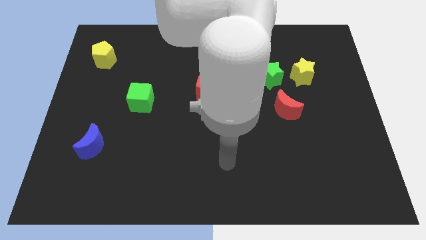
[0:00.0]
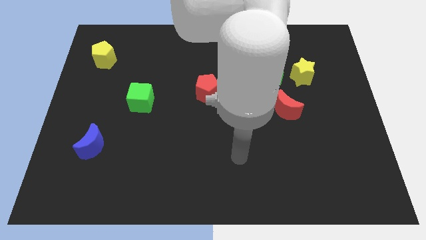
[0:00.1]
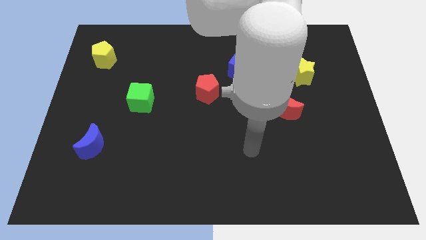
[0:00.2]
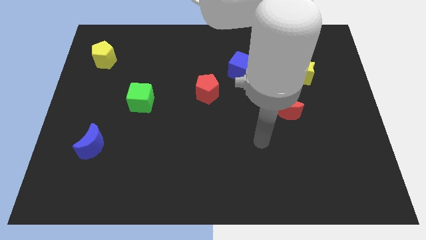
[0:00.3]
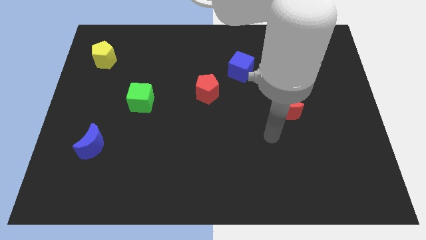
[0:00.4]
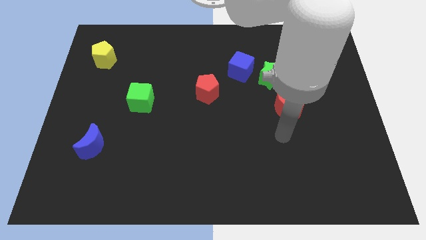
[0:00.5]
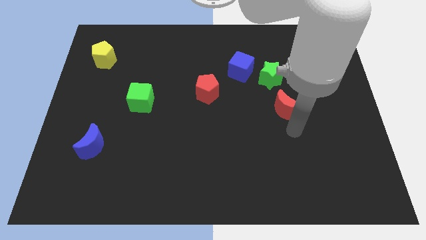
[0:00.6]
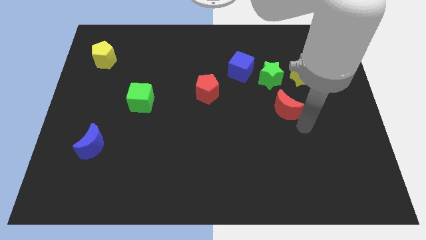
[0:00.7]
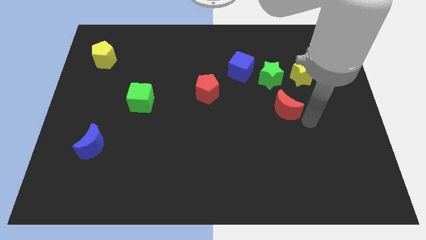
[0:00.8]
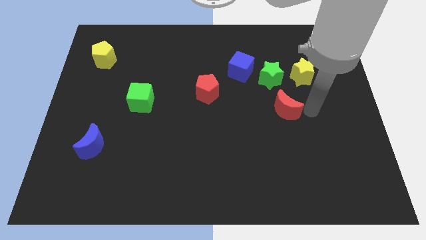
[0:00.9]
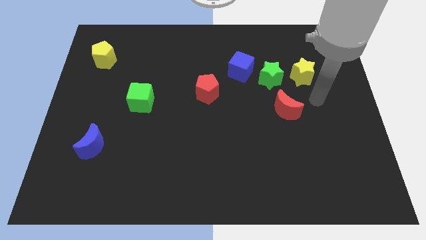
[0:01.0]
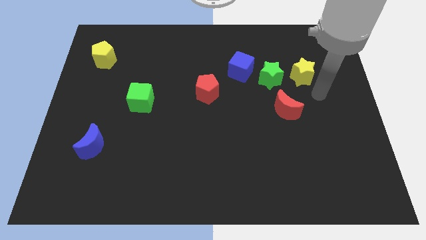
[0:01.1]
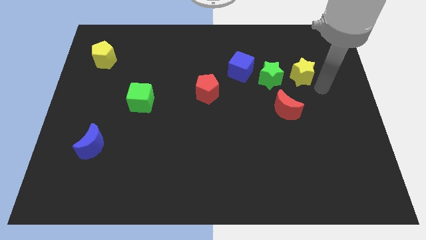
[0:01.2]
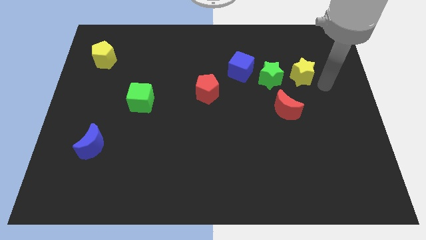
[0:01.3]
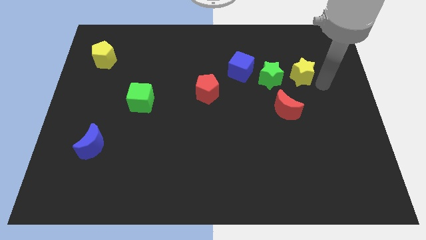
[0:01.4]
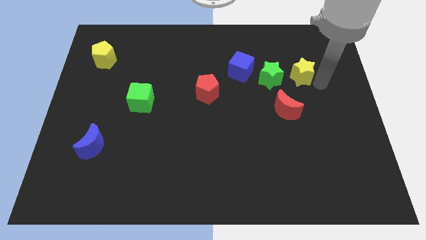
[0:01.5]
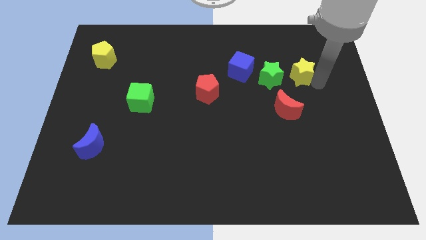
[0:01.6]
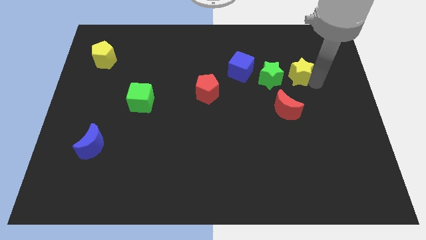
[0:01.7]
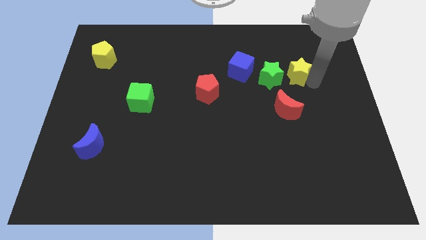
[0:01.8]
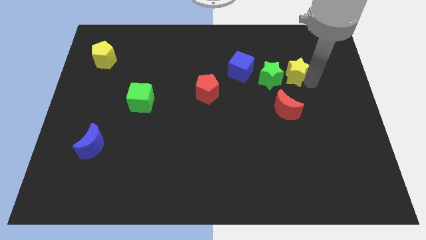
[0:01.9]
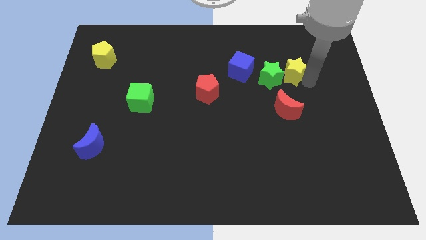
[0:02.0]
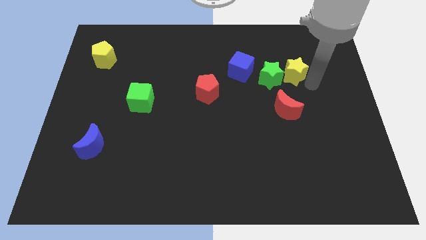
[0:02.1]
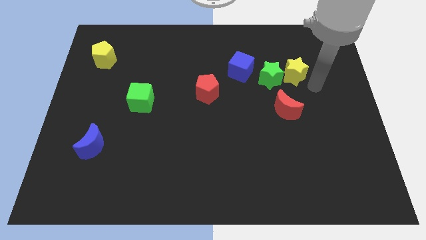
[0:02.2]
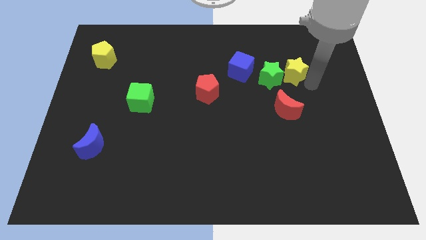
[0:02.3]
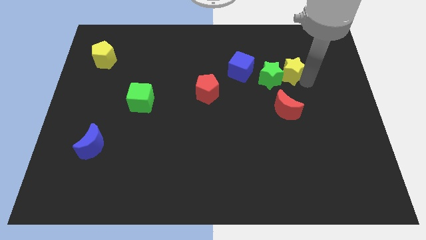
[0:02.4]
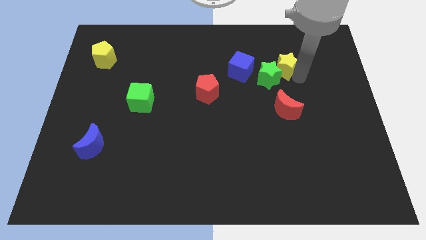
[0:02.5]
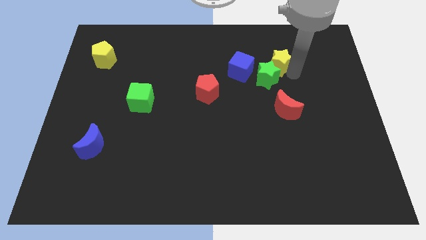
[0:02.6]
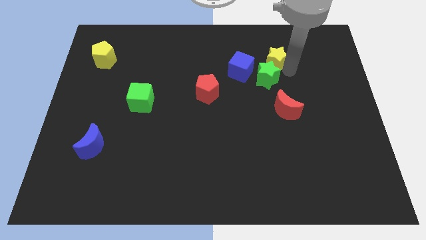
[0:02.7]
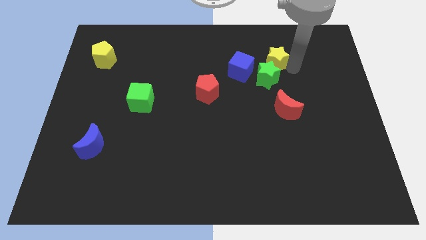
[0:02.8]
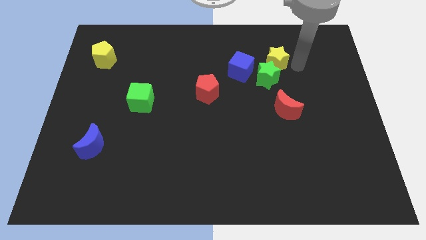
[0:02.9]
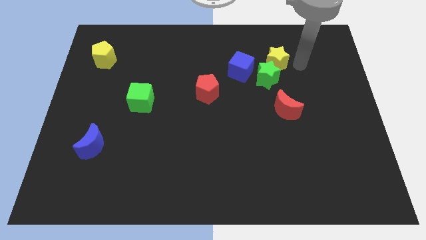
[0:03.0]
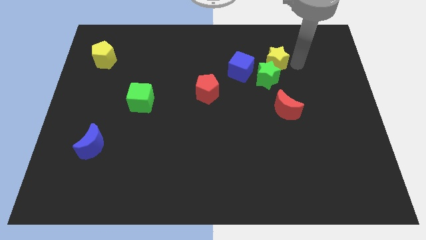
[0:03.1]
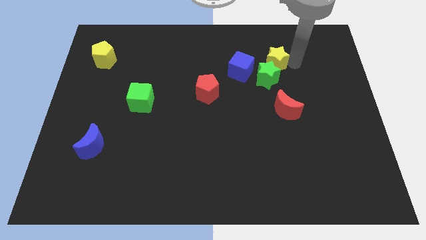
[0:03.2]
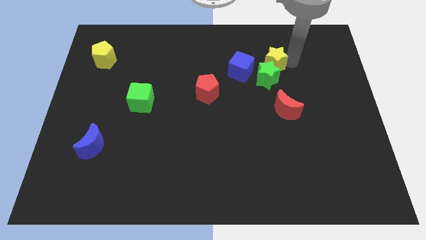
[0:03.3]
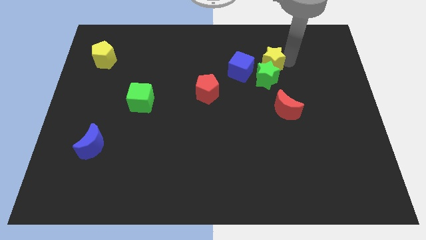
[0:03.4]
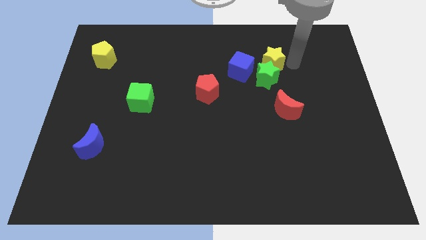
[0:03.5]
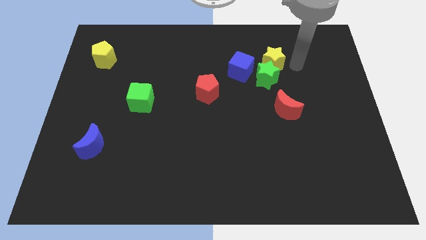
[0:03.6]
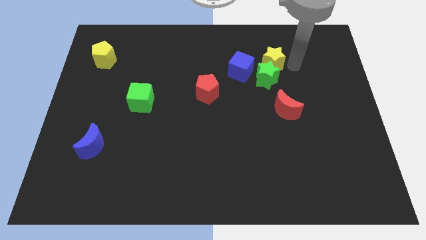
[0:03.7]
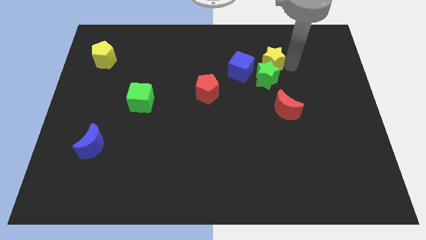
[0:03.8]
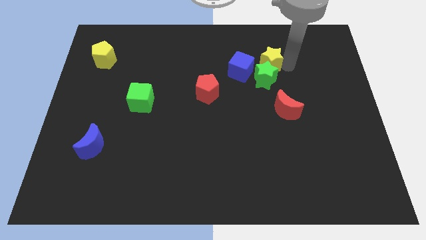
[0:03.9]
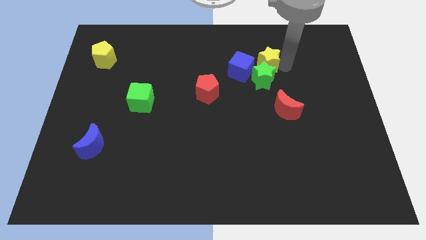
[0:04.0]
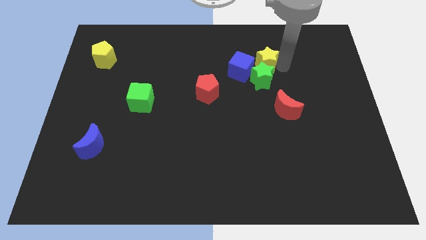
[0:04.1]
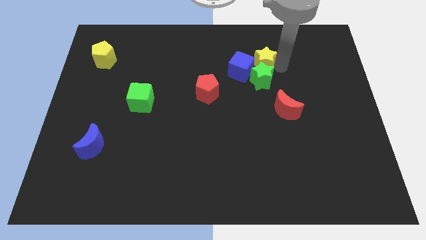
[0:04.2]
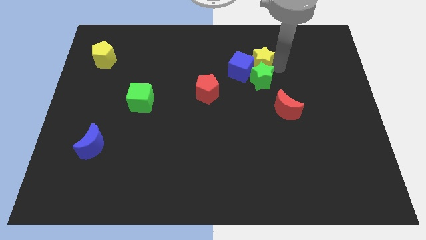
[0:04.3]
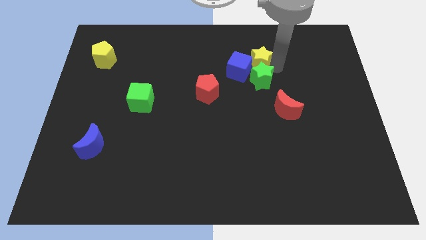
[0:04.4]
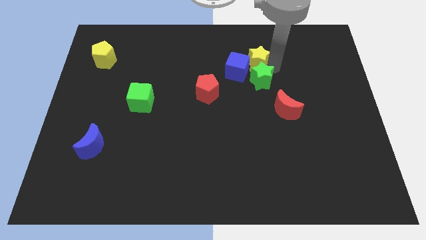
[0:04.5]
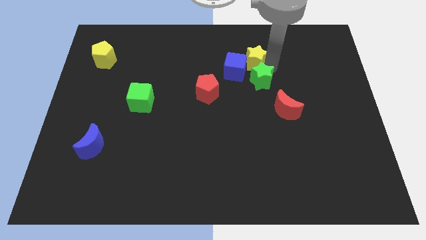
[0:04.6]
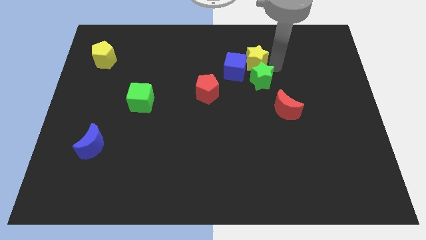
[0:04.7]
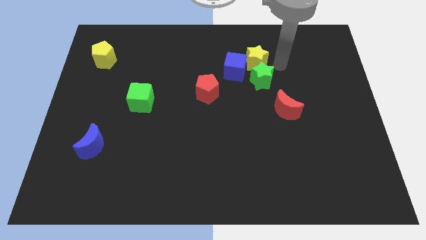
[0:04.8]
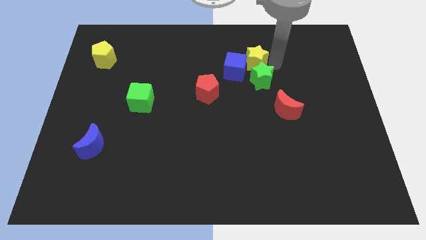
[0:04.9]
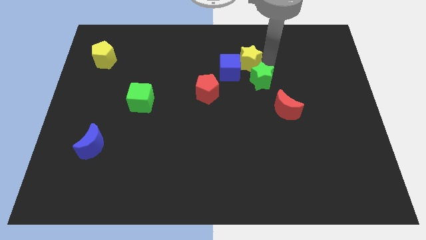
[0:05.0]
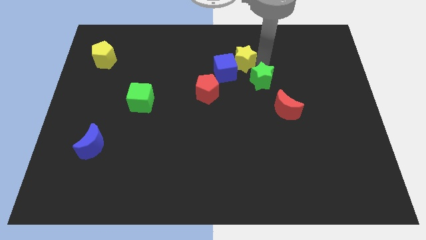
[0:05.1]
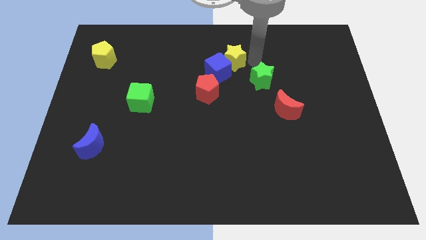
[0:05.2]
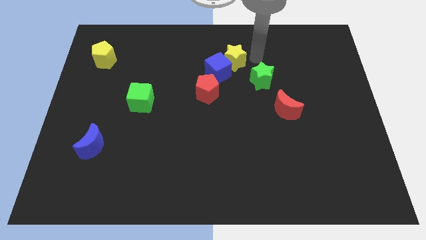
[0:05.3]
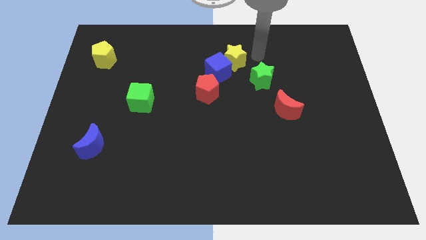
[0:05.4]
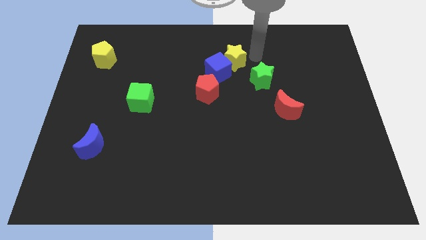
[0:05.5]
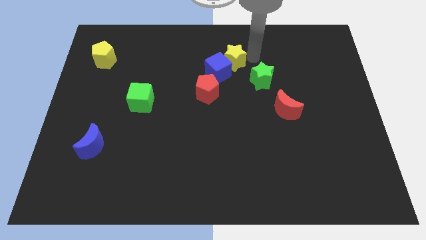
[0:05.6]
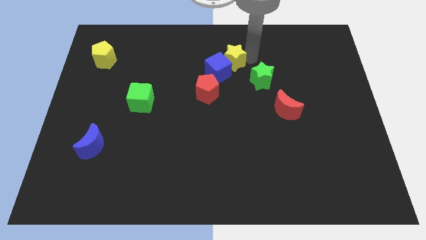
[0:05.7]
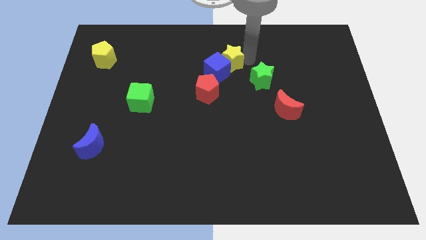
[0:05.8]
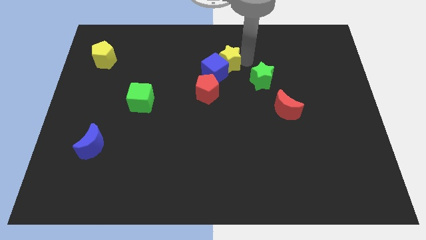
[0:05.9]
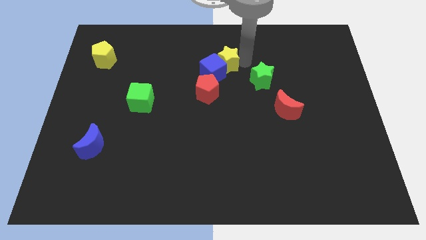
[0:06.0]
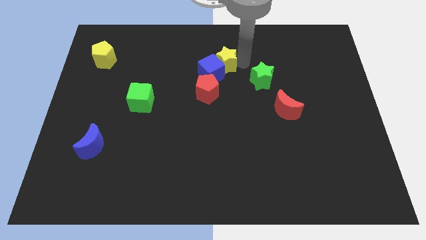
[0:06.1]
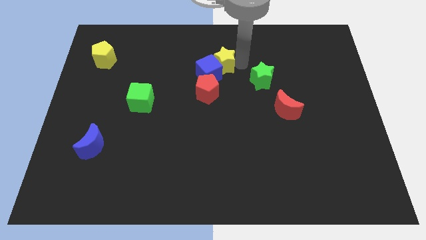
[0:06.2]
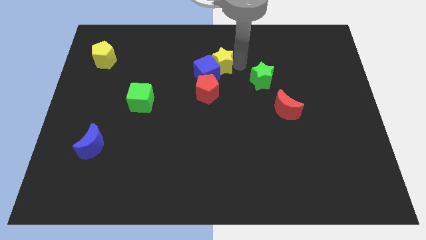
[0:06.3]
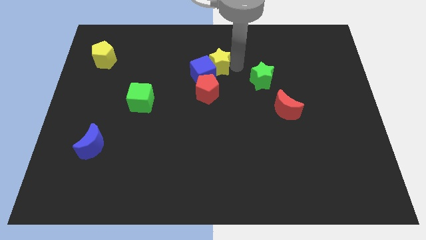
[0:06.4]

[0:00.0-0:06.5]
push the yellow star left

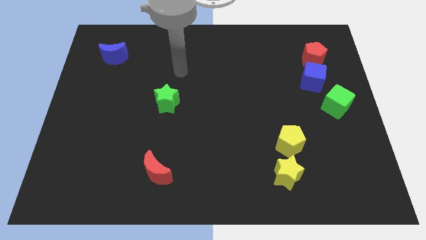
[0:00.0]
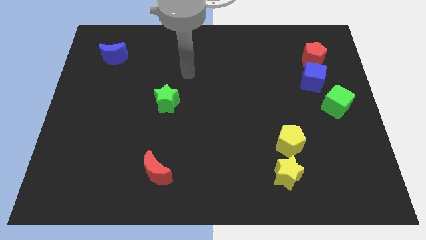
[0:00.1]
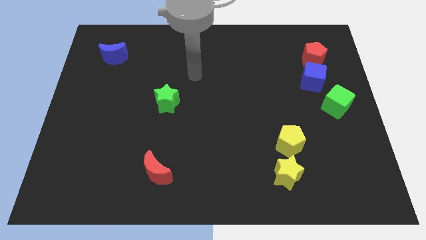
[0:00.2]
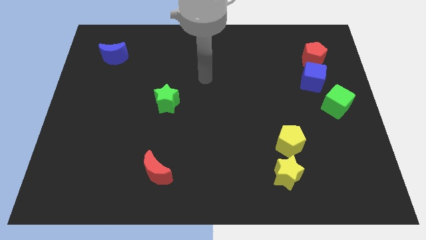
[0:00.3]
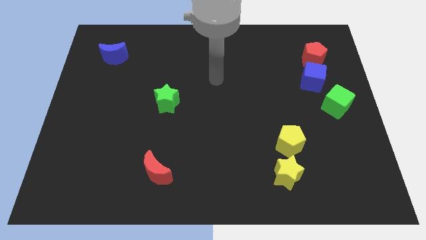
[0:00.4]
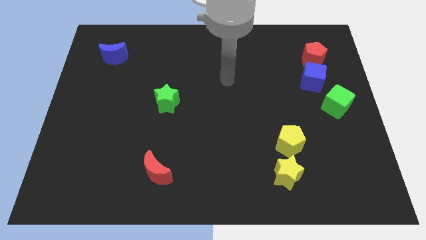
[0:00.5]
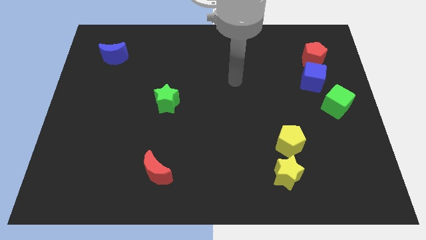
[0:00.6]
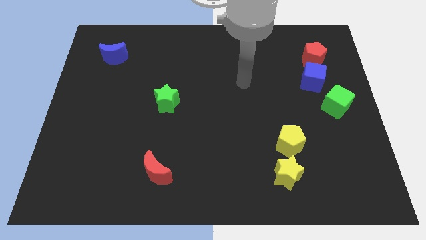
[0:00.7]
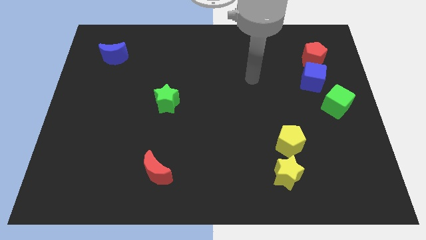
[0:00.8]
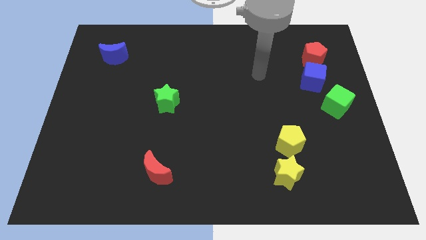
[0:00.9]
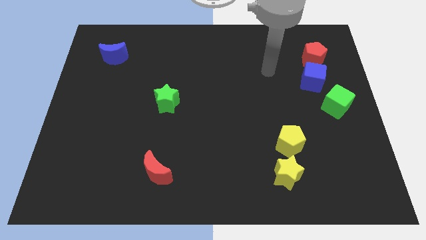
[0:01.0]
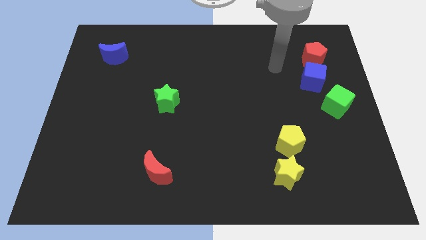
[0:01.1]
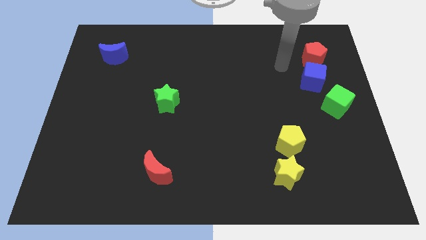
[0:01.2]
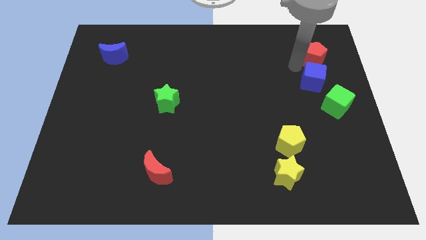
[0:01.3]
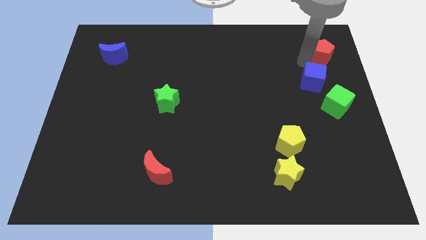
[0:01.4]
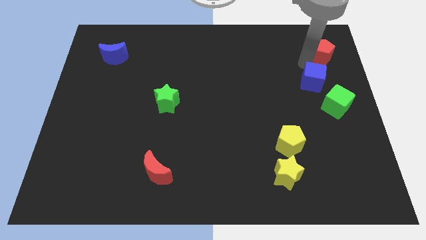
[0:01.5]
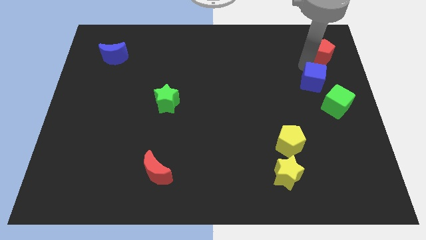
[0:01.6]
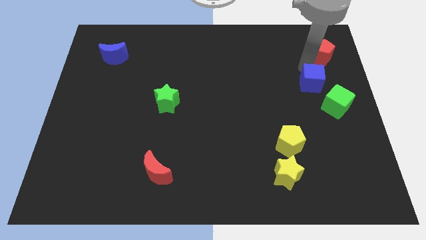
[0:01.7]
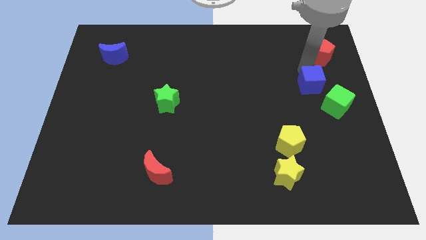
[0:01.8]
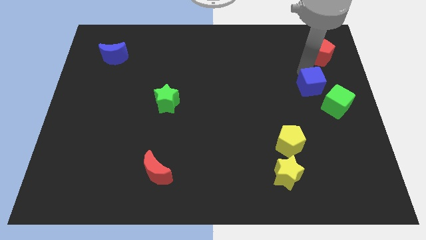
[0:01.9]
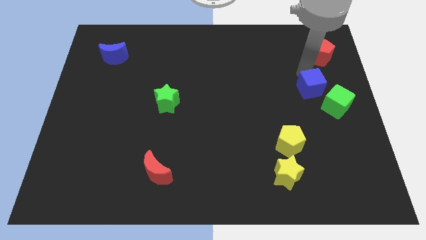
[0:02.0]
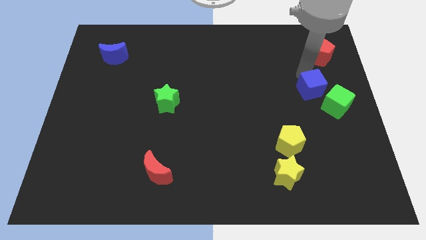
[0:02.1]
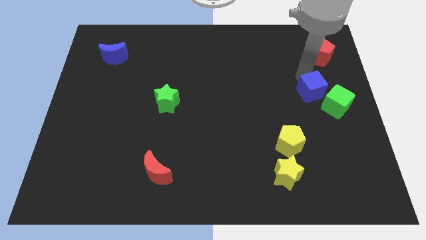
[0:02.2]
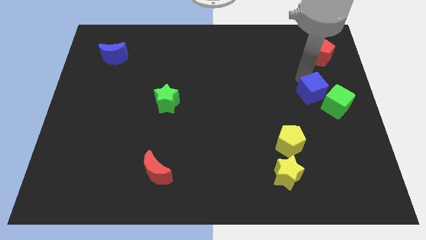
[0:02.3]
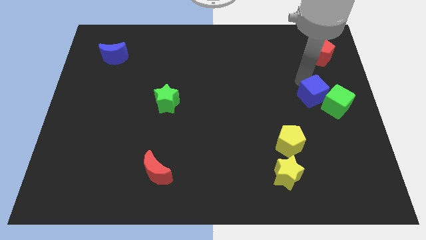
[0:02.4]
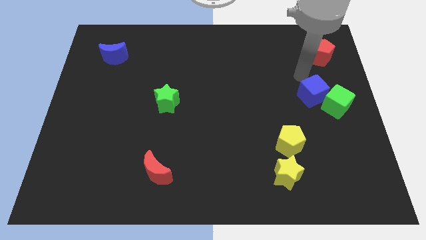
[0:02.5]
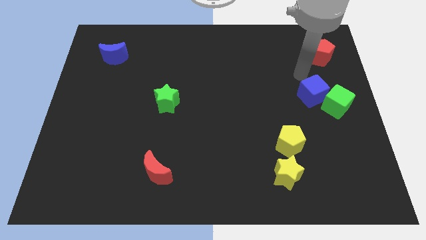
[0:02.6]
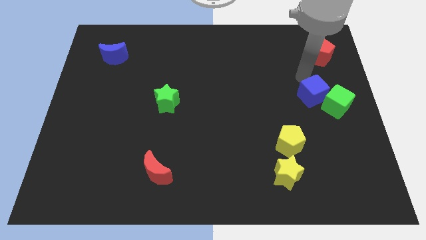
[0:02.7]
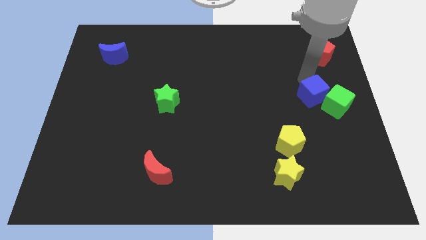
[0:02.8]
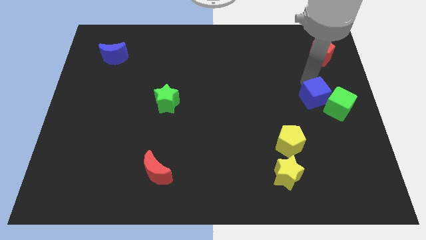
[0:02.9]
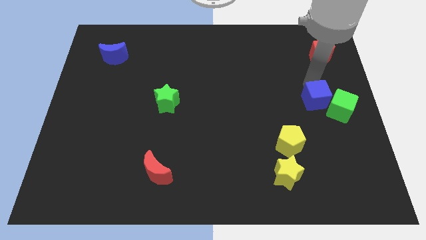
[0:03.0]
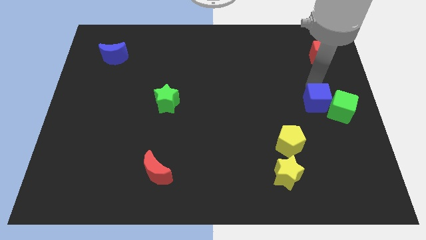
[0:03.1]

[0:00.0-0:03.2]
slide the blue cube downwards a little
